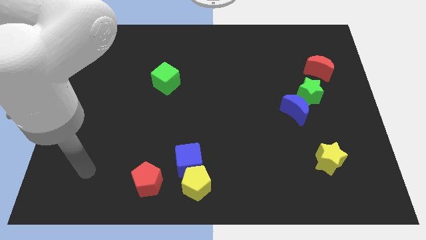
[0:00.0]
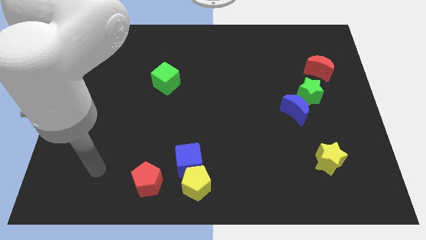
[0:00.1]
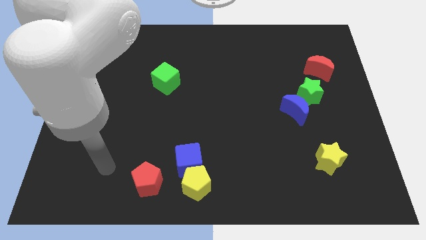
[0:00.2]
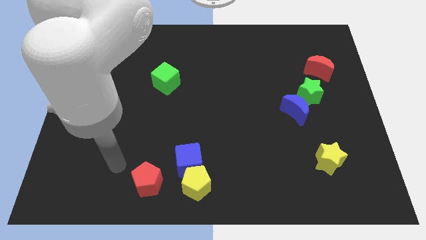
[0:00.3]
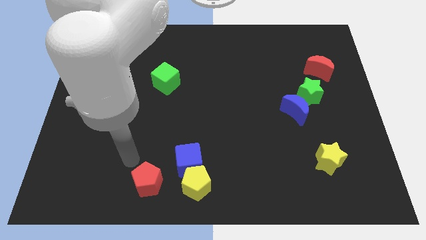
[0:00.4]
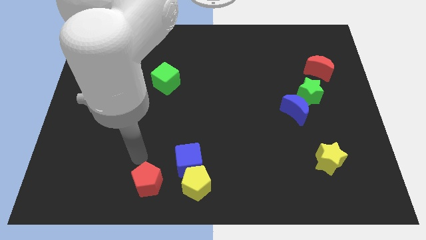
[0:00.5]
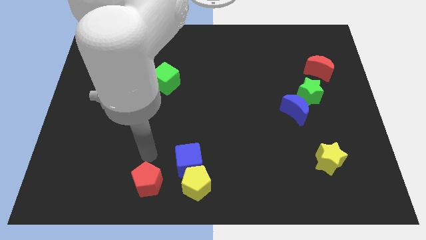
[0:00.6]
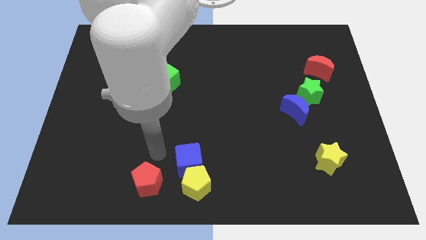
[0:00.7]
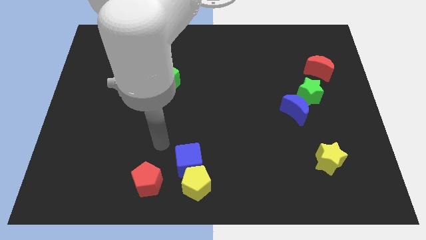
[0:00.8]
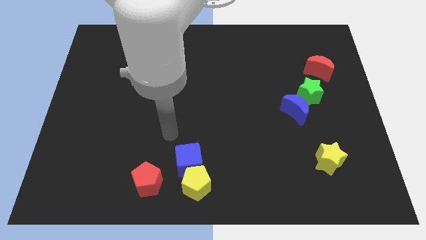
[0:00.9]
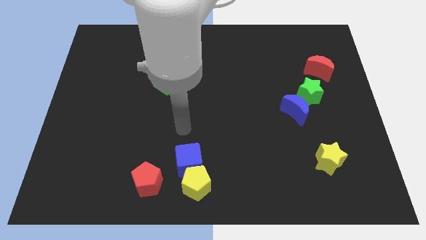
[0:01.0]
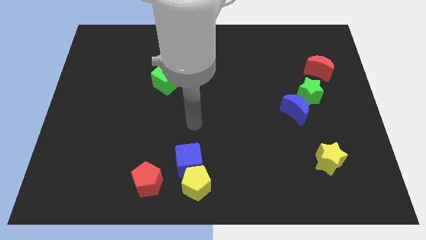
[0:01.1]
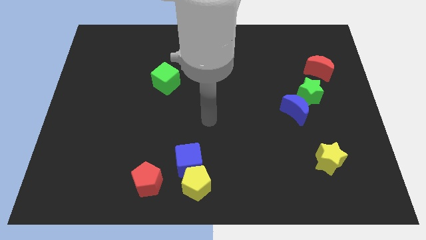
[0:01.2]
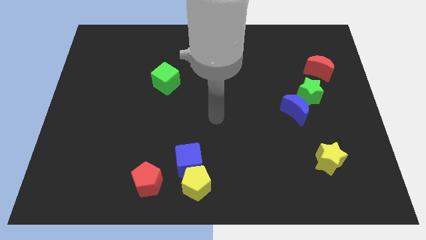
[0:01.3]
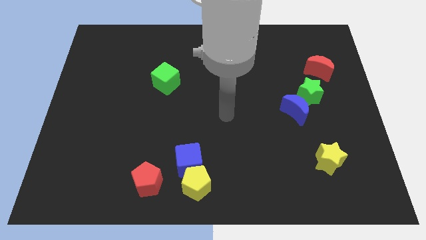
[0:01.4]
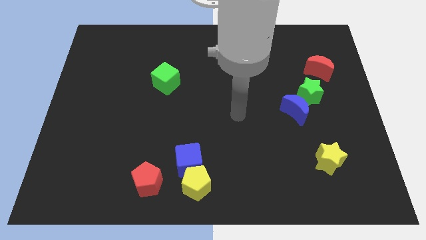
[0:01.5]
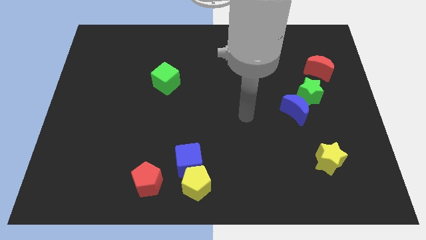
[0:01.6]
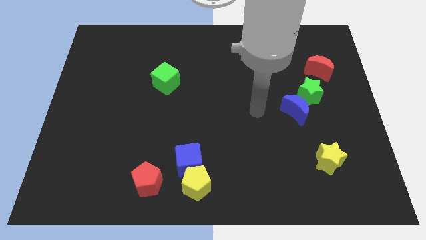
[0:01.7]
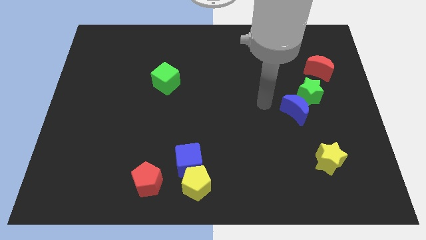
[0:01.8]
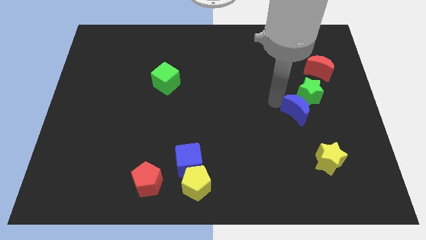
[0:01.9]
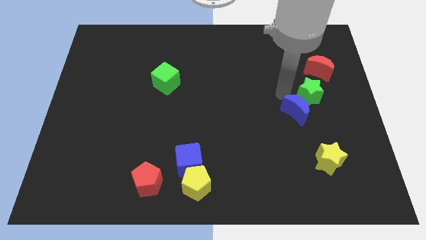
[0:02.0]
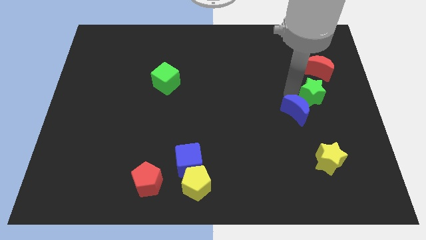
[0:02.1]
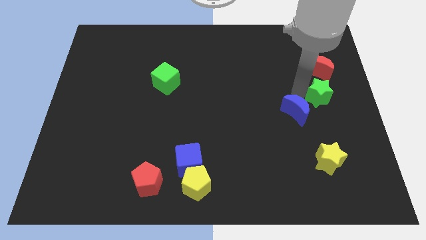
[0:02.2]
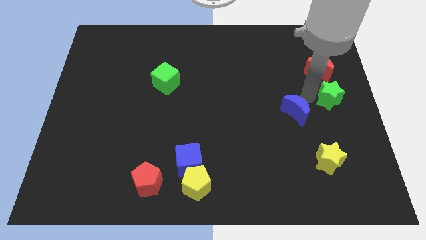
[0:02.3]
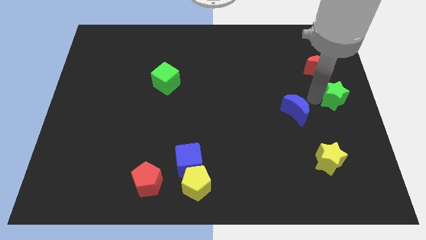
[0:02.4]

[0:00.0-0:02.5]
separate the blue moon from the green star

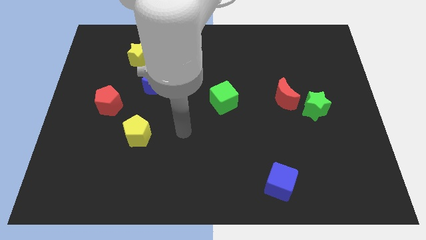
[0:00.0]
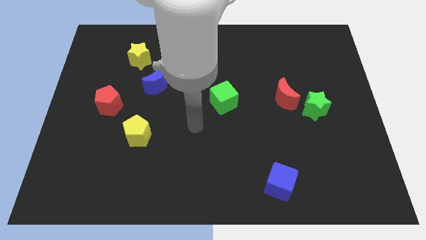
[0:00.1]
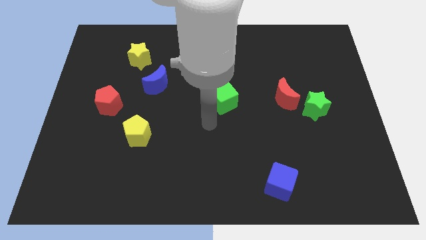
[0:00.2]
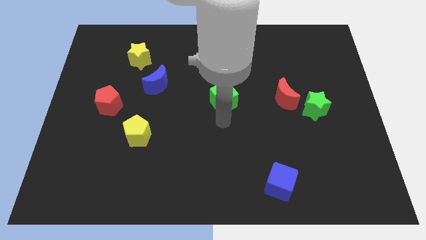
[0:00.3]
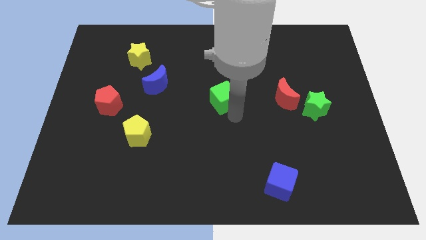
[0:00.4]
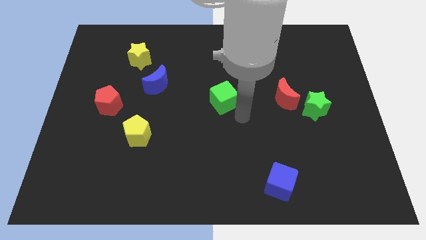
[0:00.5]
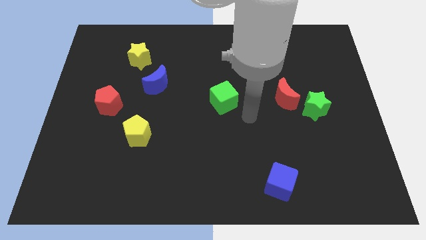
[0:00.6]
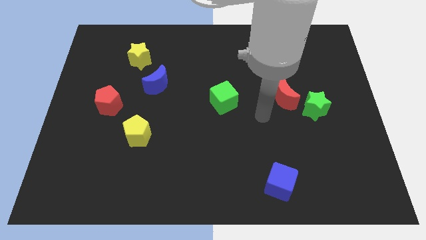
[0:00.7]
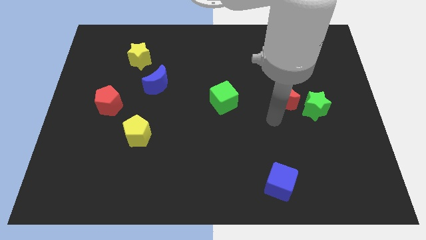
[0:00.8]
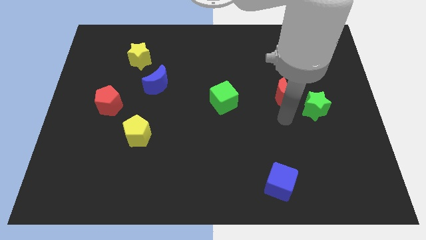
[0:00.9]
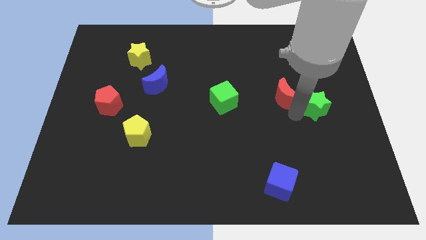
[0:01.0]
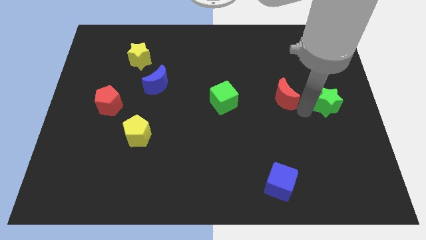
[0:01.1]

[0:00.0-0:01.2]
separate the red moon from the green star

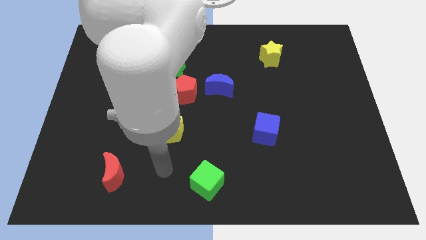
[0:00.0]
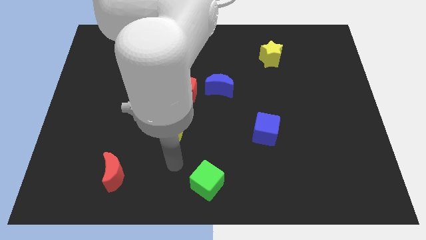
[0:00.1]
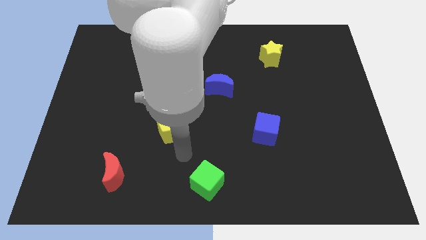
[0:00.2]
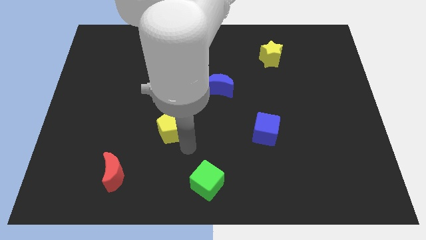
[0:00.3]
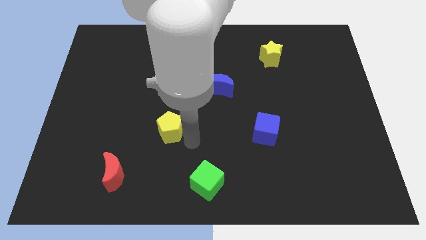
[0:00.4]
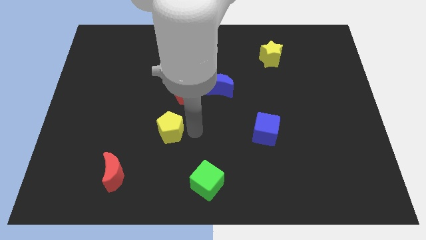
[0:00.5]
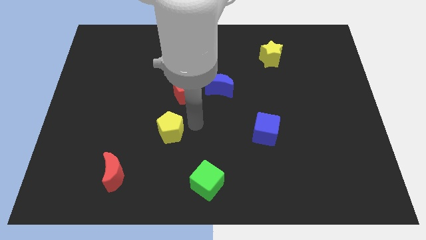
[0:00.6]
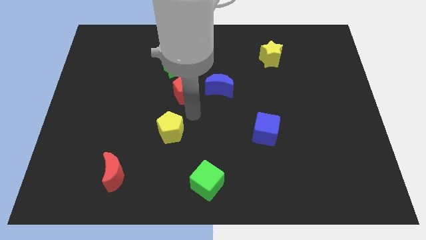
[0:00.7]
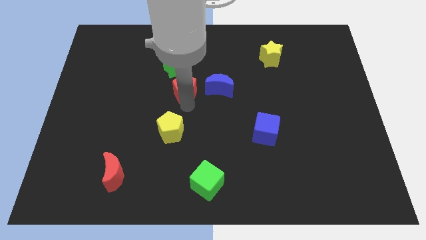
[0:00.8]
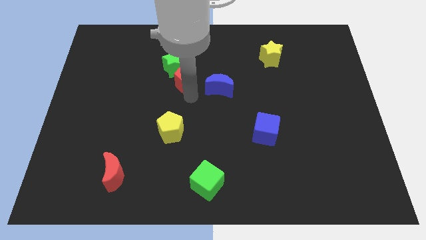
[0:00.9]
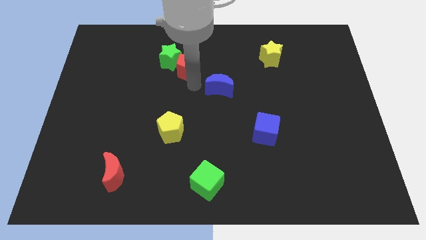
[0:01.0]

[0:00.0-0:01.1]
move the blue moon away from the red pentagon

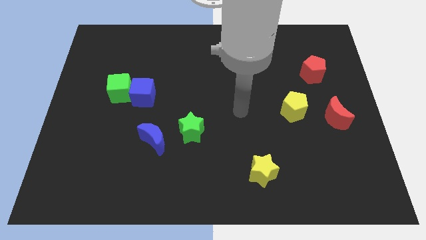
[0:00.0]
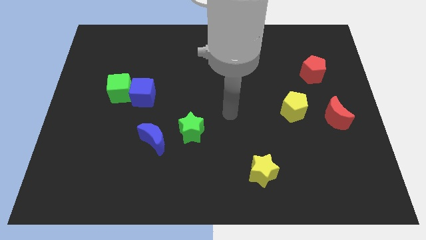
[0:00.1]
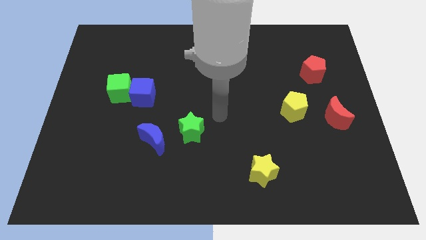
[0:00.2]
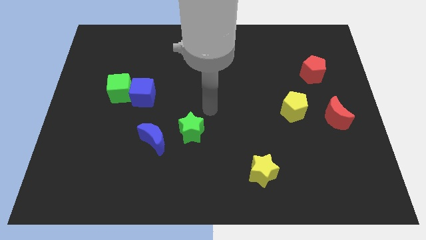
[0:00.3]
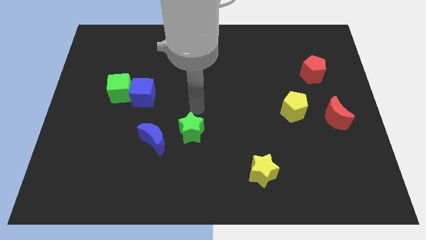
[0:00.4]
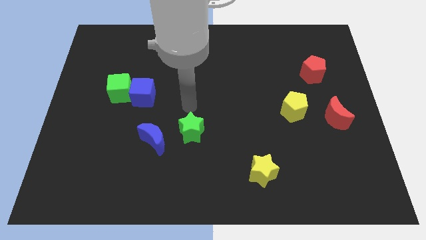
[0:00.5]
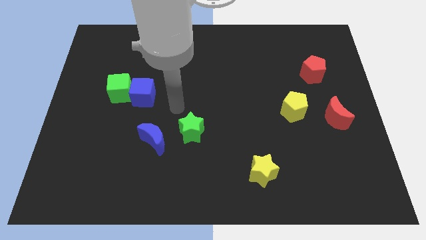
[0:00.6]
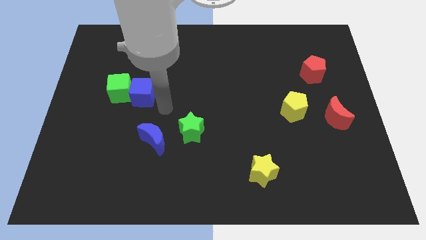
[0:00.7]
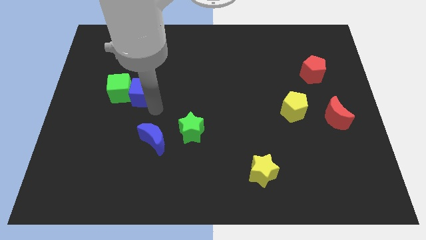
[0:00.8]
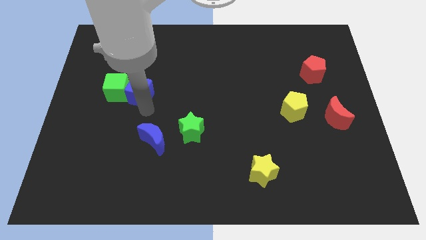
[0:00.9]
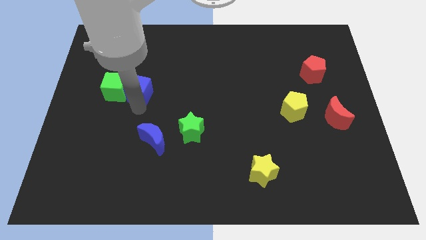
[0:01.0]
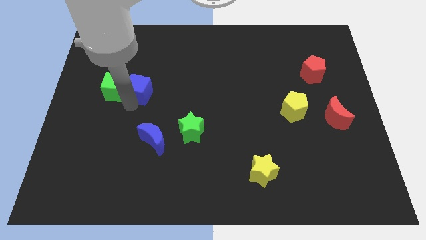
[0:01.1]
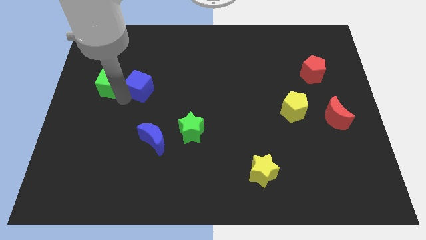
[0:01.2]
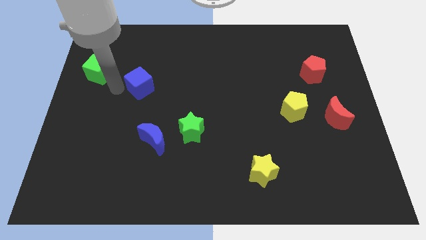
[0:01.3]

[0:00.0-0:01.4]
pull the blue cube apart from the green cube

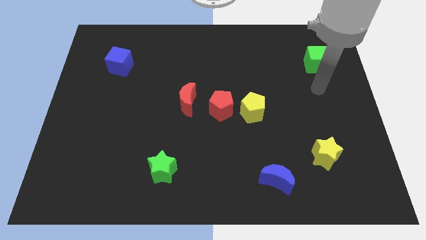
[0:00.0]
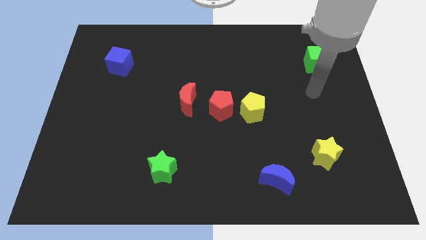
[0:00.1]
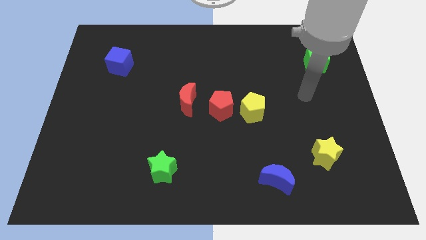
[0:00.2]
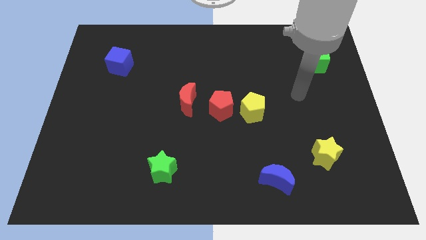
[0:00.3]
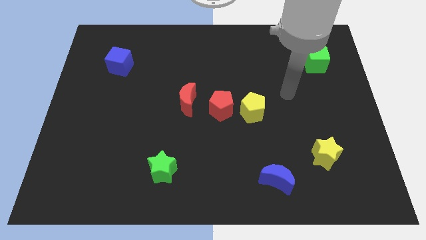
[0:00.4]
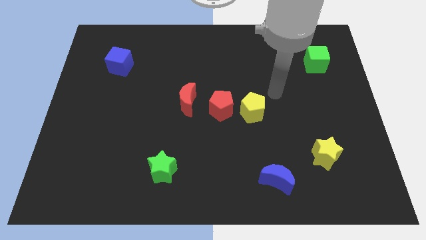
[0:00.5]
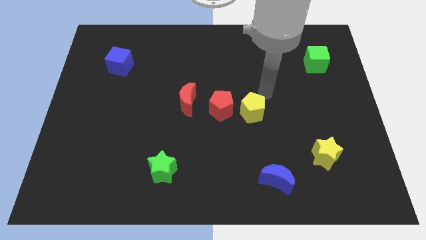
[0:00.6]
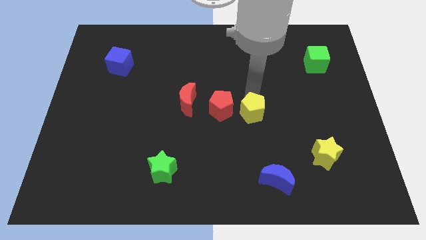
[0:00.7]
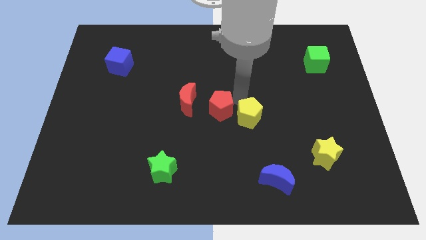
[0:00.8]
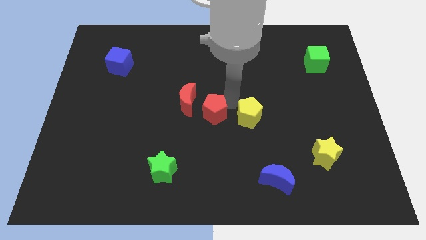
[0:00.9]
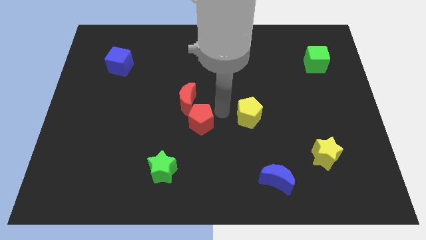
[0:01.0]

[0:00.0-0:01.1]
move the yellow pentagon away from the red pentagon

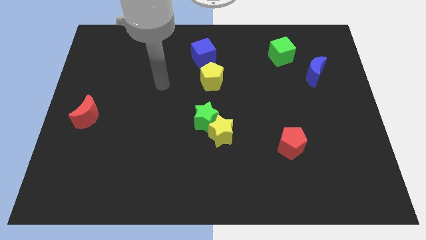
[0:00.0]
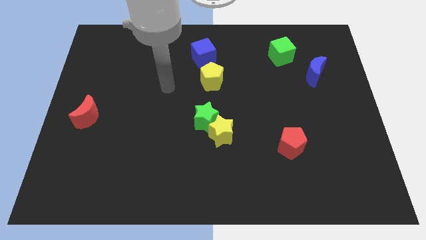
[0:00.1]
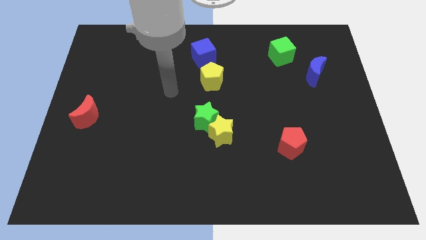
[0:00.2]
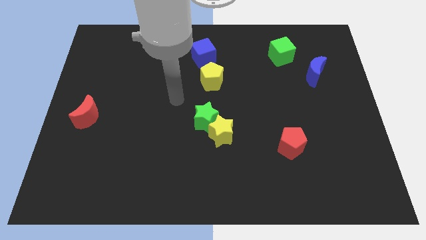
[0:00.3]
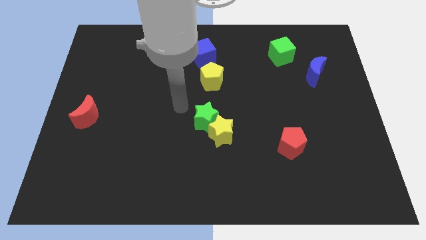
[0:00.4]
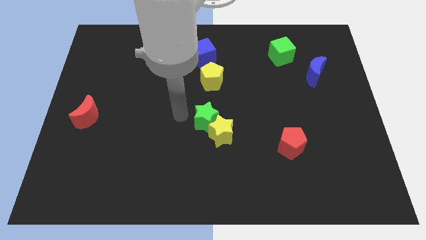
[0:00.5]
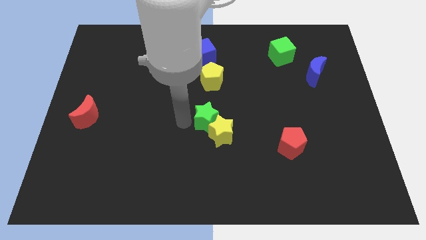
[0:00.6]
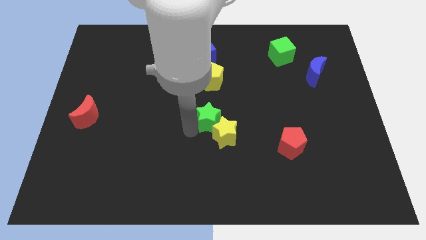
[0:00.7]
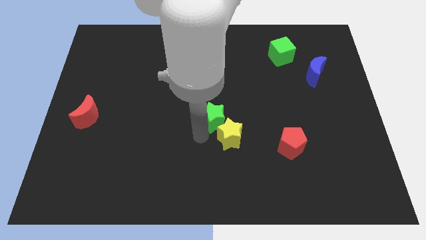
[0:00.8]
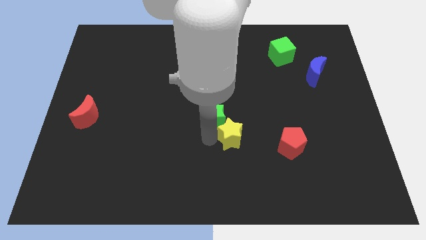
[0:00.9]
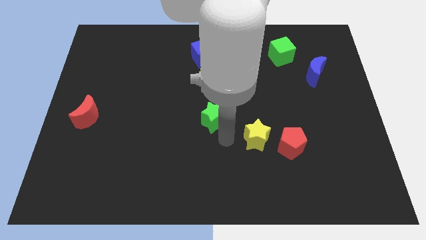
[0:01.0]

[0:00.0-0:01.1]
pull the green star apart from the yellow star

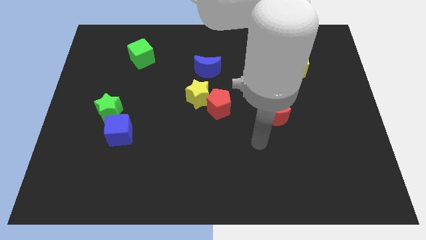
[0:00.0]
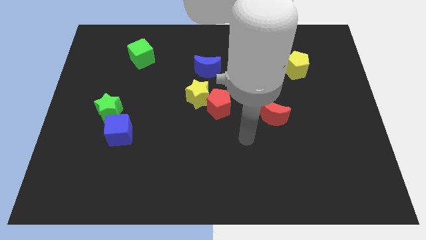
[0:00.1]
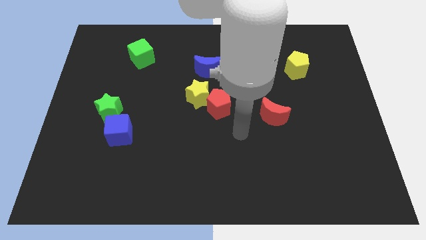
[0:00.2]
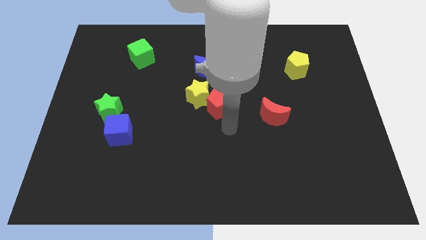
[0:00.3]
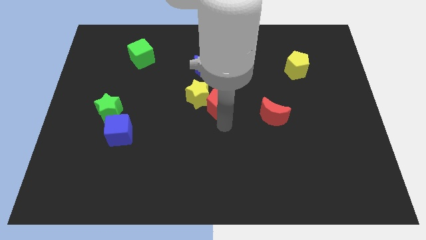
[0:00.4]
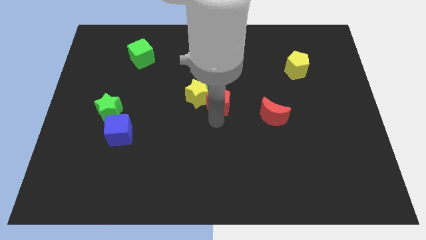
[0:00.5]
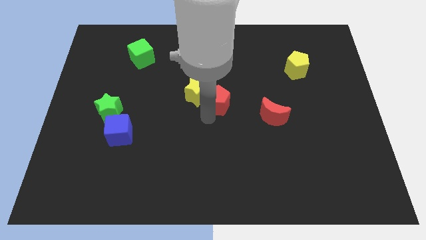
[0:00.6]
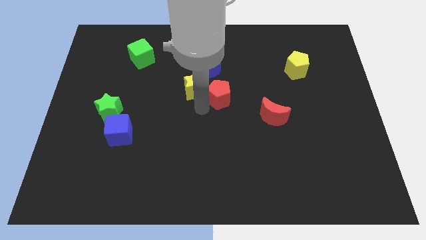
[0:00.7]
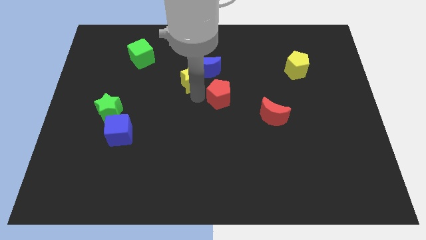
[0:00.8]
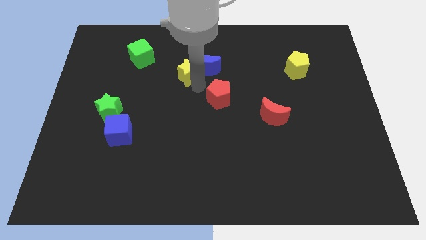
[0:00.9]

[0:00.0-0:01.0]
separate the red pentagon from the yellow star
